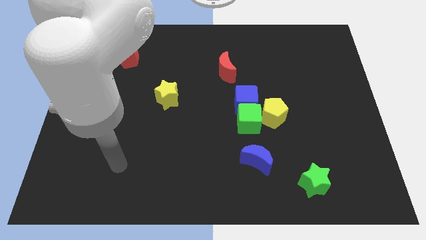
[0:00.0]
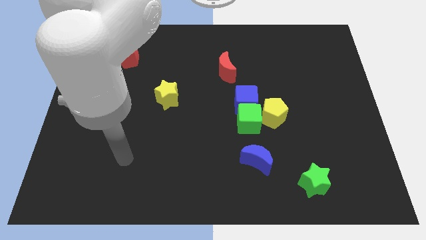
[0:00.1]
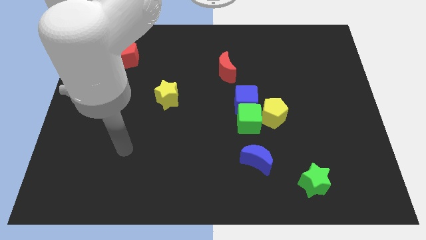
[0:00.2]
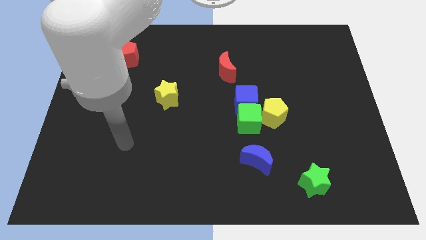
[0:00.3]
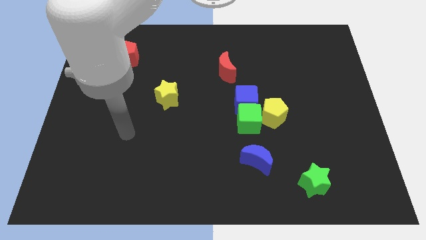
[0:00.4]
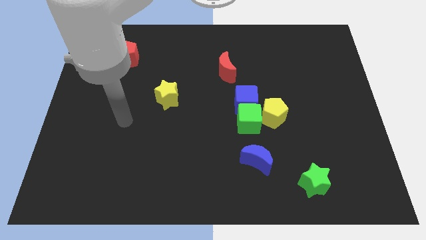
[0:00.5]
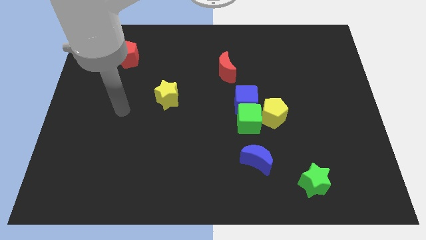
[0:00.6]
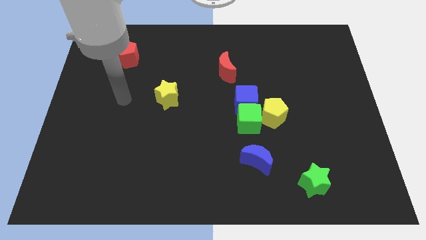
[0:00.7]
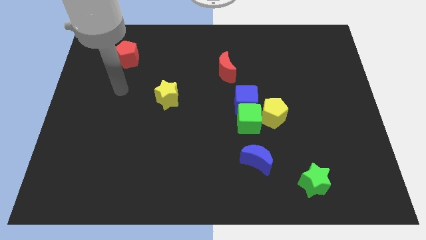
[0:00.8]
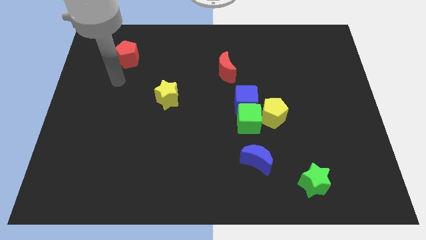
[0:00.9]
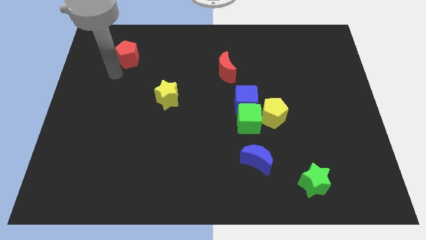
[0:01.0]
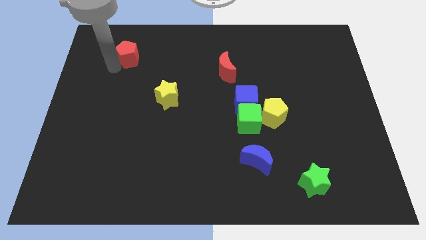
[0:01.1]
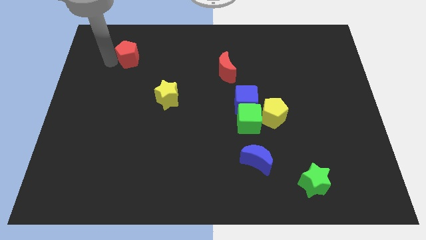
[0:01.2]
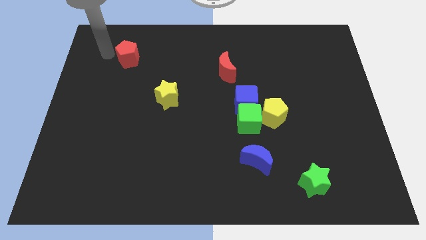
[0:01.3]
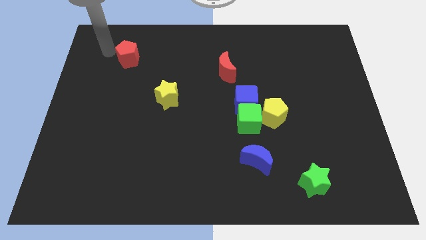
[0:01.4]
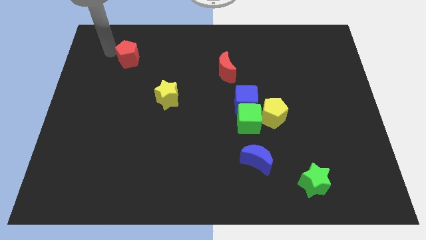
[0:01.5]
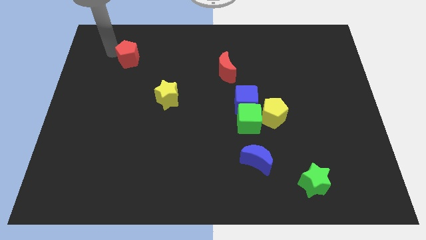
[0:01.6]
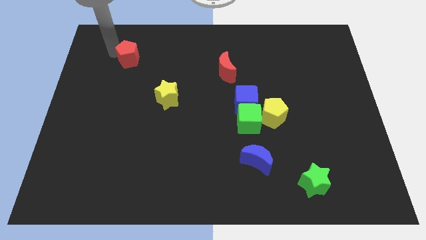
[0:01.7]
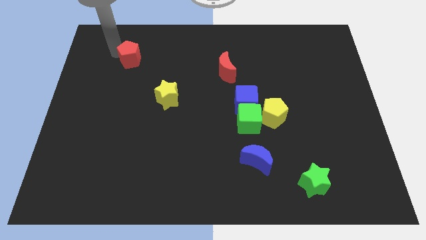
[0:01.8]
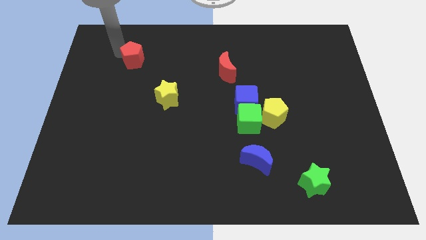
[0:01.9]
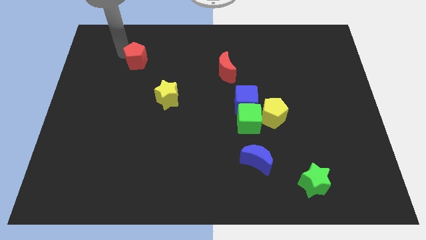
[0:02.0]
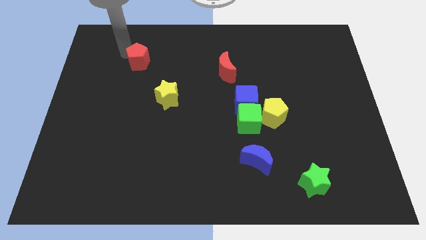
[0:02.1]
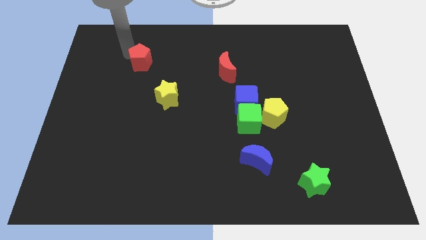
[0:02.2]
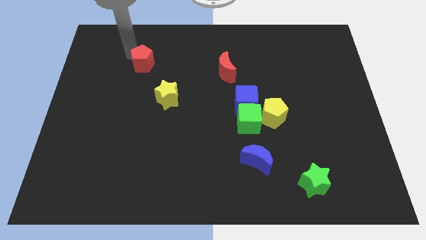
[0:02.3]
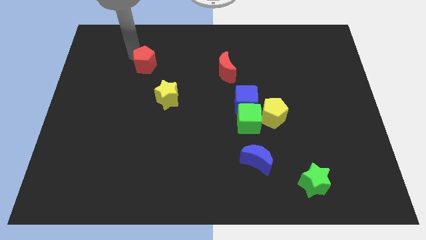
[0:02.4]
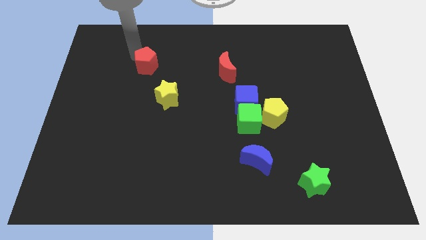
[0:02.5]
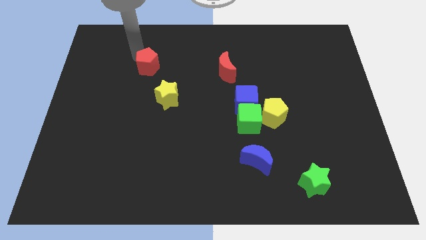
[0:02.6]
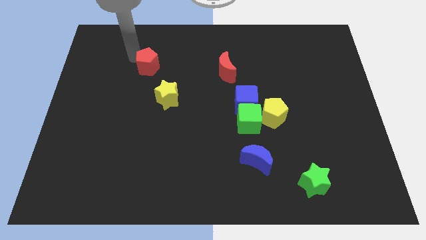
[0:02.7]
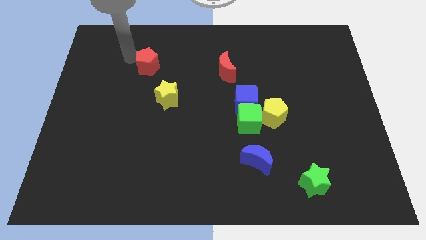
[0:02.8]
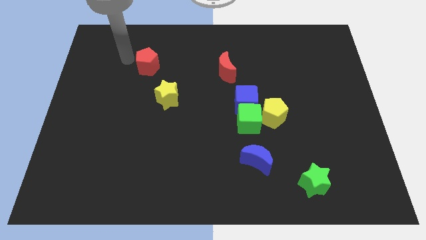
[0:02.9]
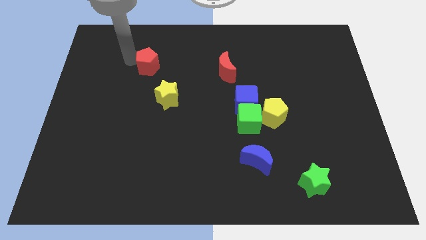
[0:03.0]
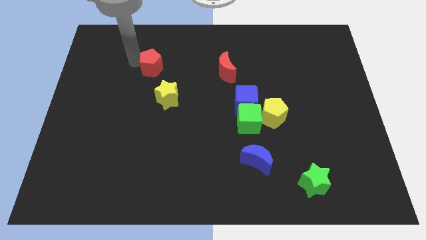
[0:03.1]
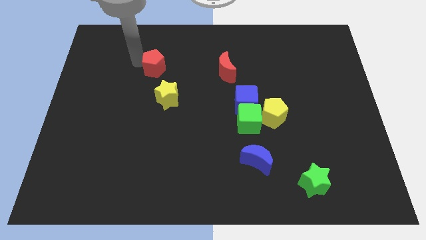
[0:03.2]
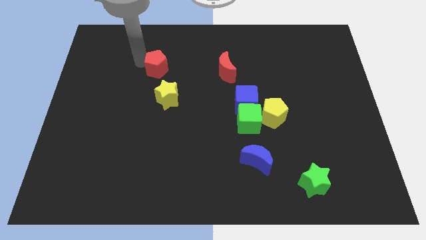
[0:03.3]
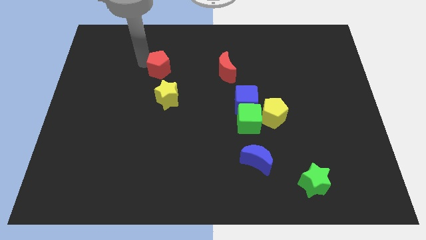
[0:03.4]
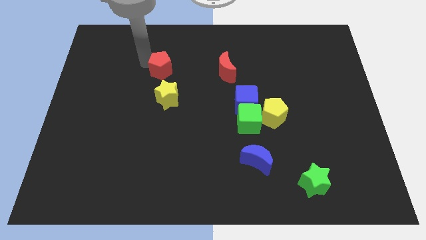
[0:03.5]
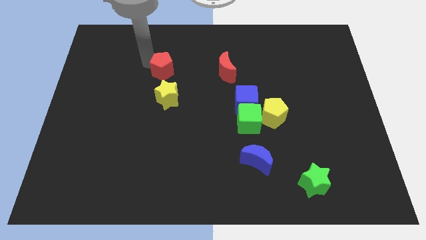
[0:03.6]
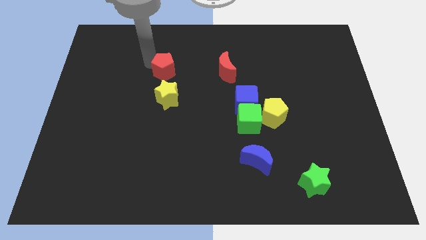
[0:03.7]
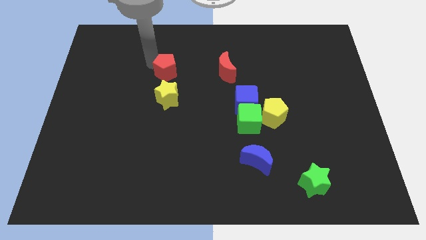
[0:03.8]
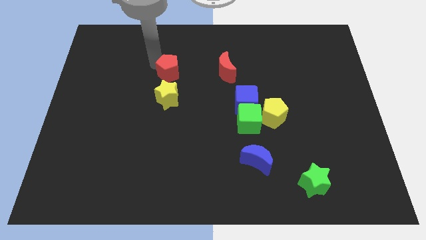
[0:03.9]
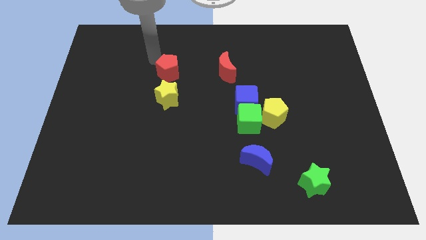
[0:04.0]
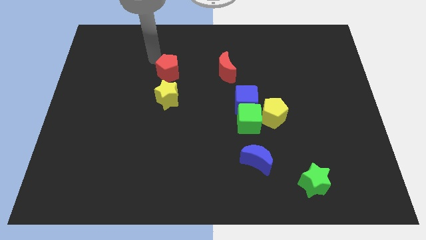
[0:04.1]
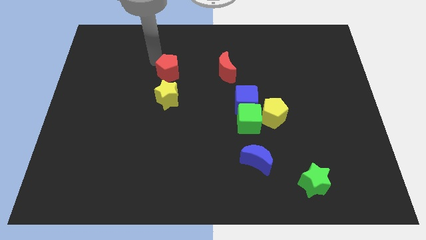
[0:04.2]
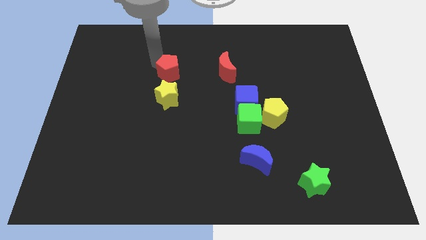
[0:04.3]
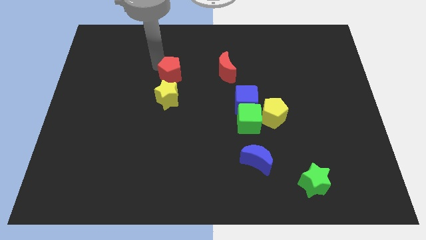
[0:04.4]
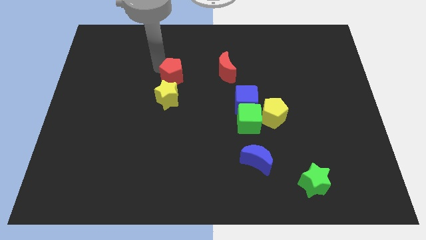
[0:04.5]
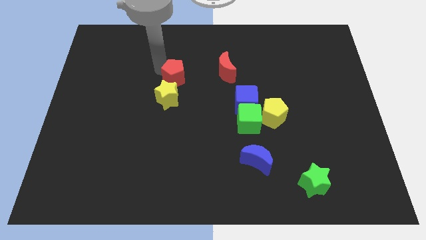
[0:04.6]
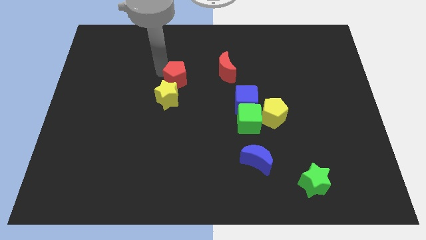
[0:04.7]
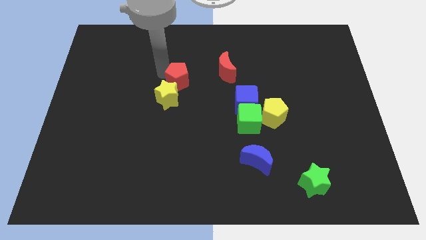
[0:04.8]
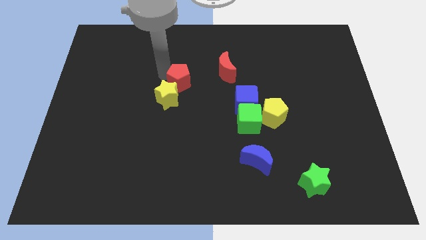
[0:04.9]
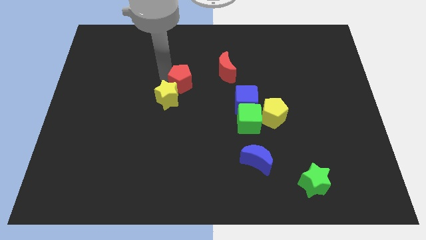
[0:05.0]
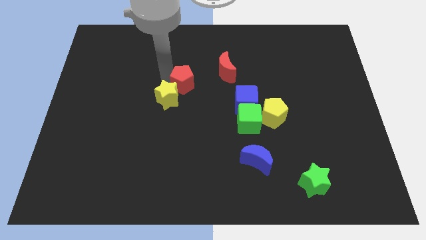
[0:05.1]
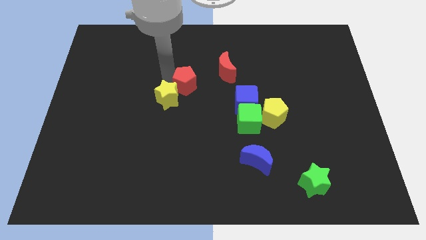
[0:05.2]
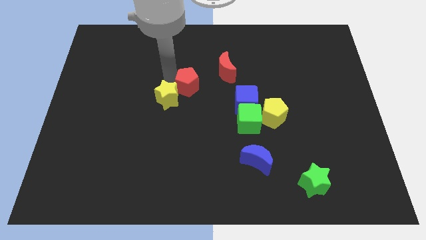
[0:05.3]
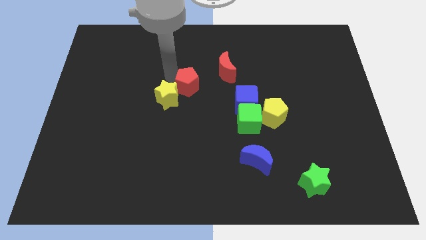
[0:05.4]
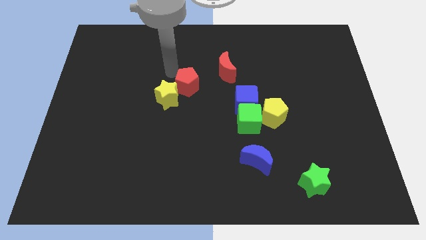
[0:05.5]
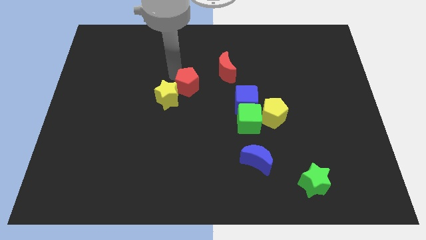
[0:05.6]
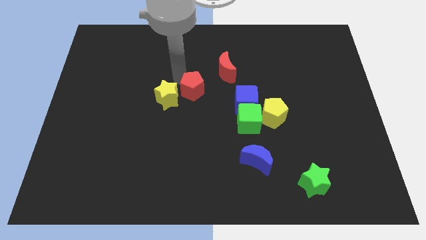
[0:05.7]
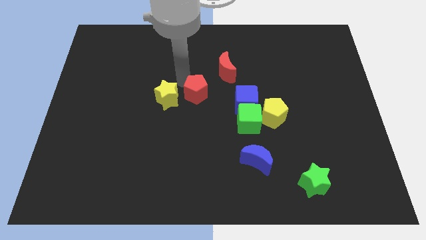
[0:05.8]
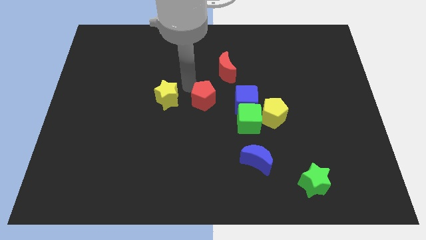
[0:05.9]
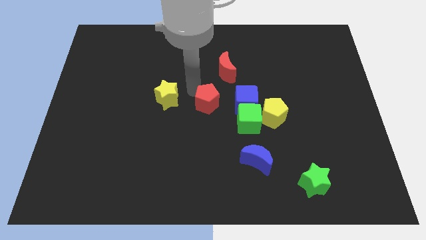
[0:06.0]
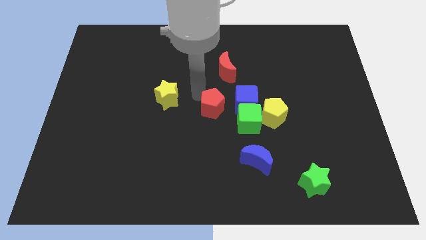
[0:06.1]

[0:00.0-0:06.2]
slide the red pentagon to the left side of the yellow pentagon

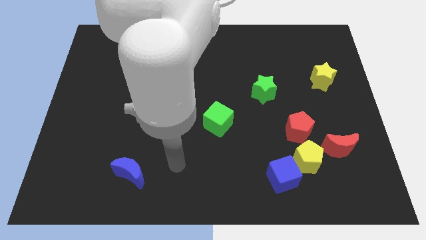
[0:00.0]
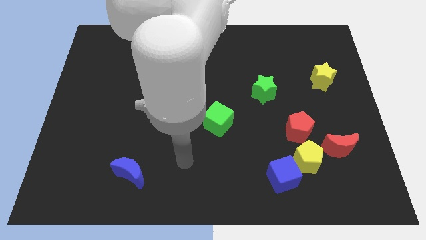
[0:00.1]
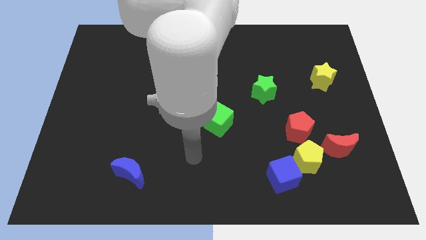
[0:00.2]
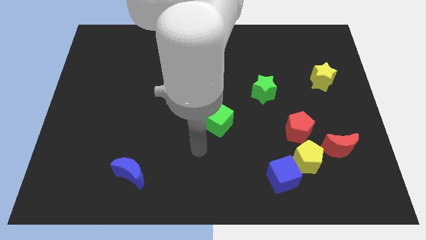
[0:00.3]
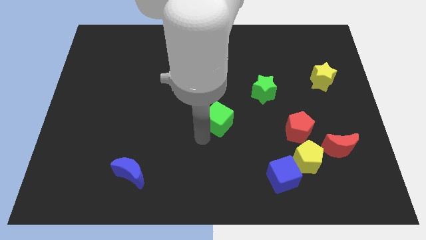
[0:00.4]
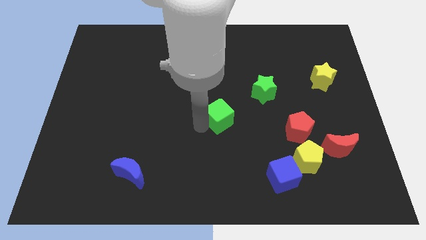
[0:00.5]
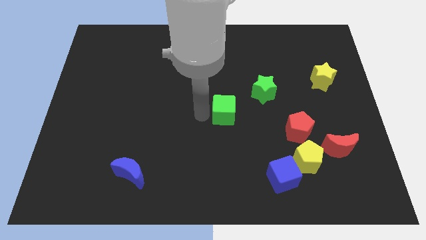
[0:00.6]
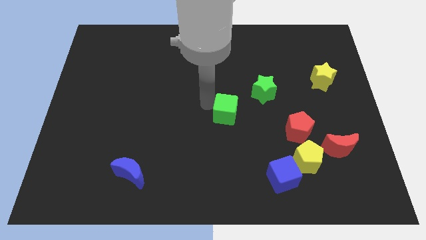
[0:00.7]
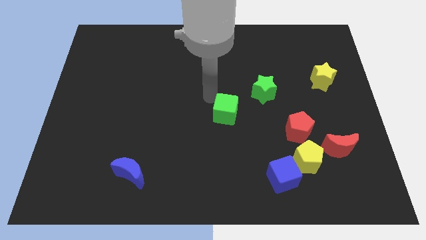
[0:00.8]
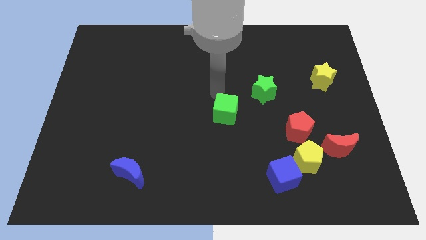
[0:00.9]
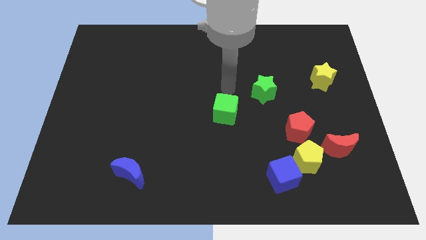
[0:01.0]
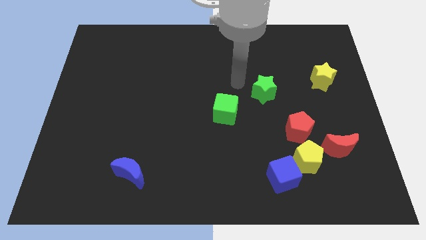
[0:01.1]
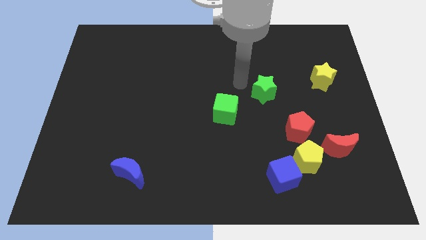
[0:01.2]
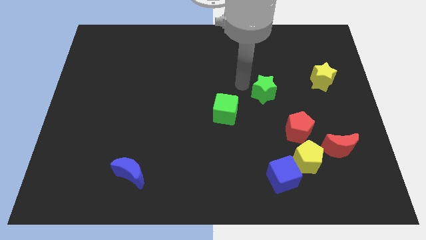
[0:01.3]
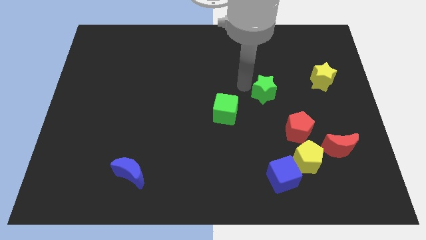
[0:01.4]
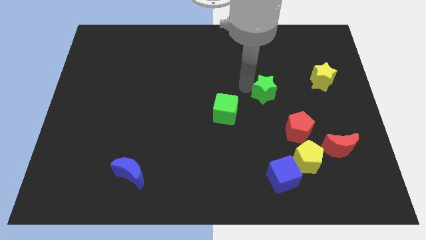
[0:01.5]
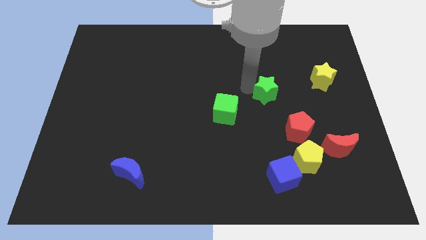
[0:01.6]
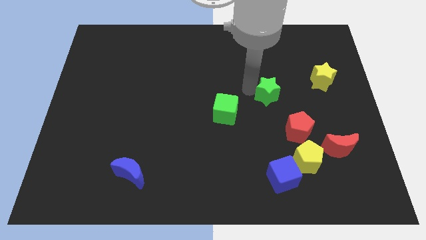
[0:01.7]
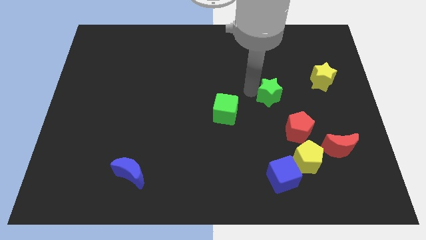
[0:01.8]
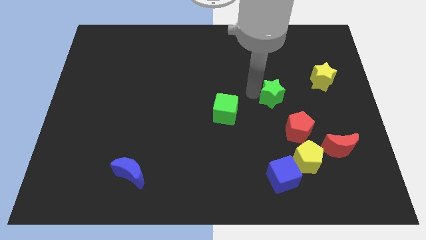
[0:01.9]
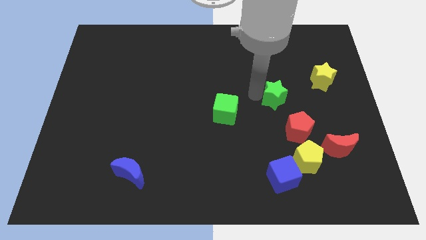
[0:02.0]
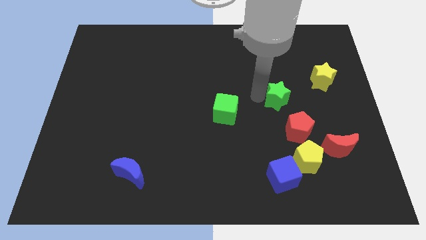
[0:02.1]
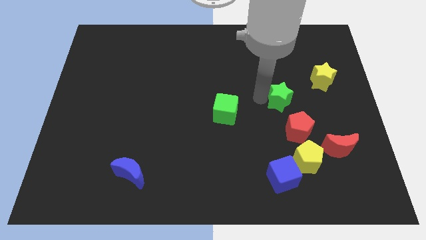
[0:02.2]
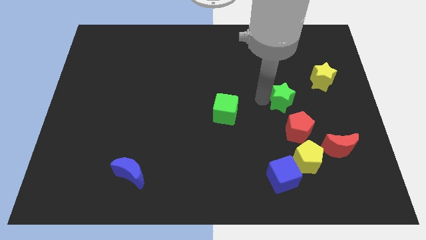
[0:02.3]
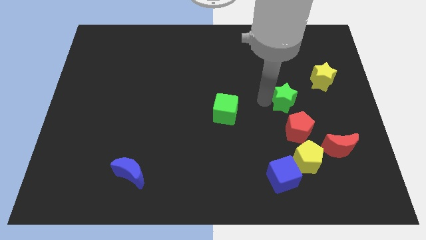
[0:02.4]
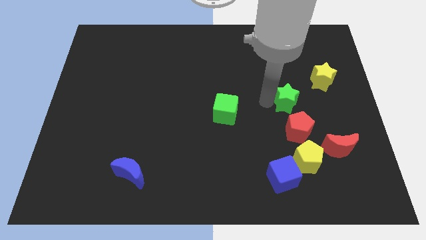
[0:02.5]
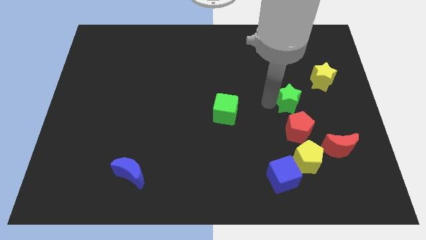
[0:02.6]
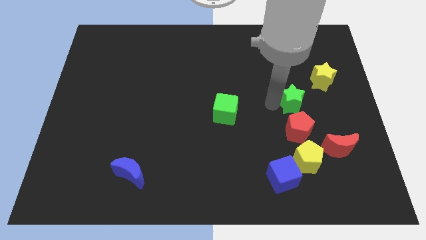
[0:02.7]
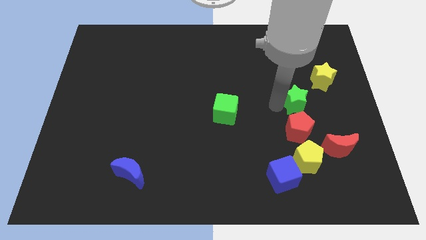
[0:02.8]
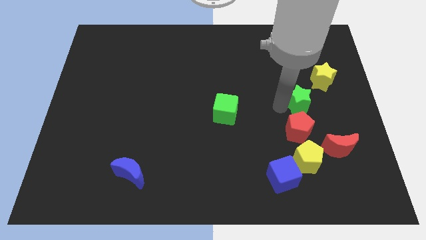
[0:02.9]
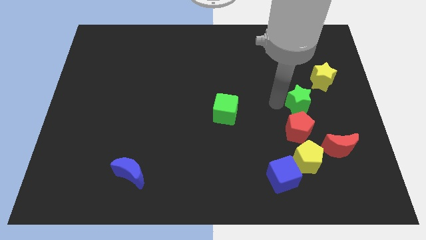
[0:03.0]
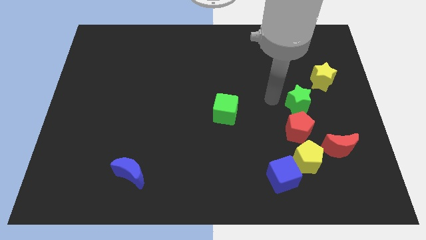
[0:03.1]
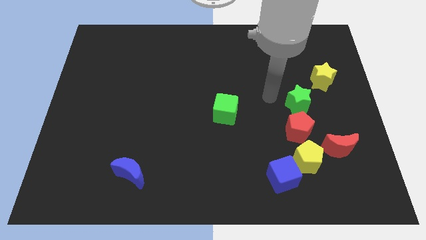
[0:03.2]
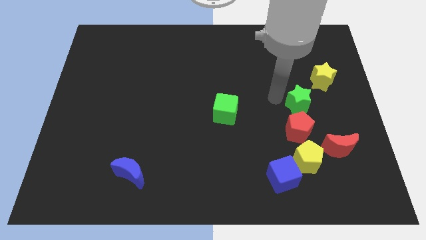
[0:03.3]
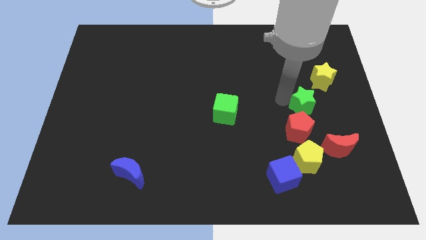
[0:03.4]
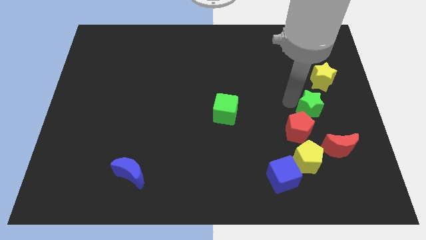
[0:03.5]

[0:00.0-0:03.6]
push the green star to the top of the red moon
